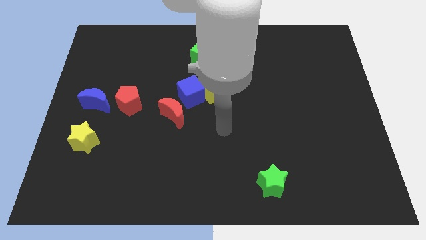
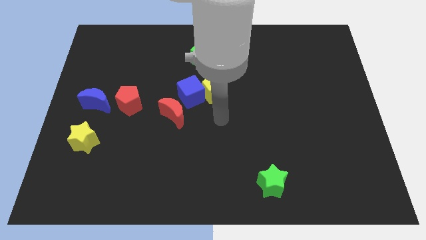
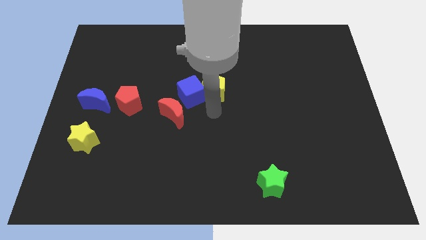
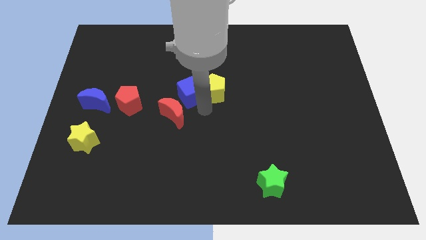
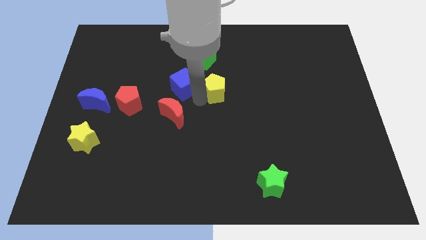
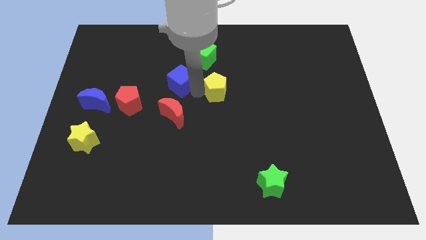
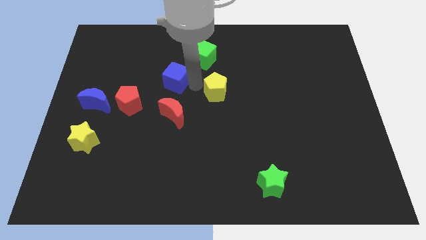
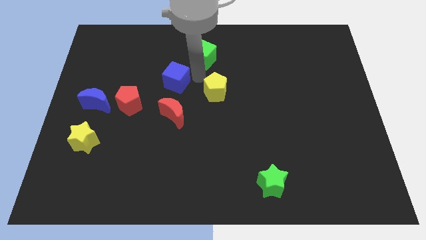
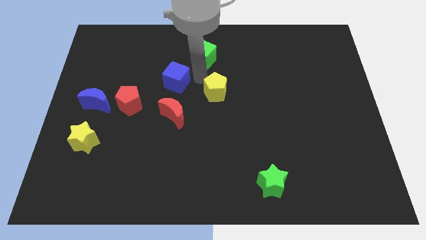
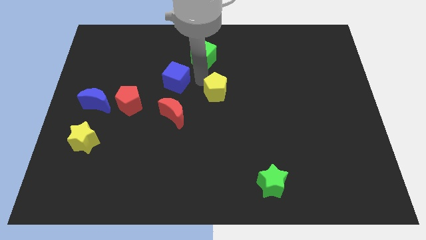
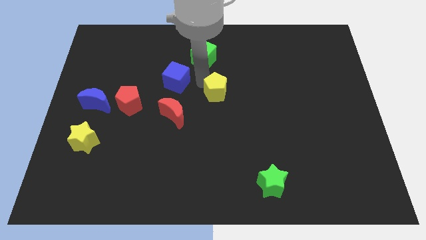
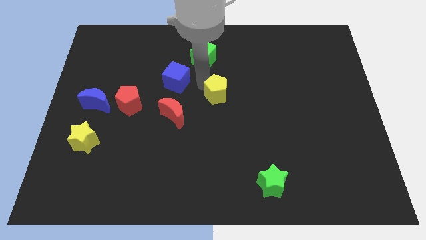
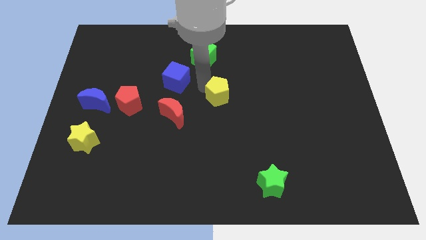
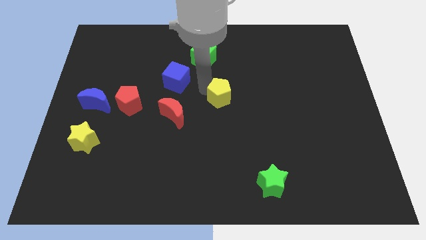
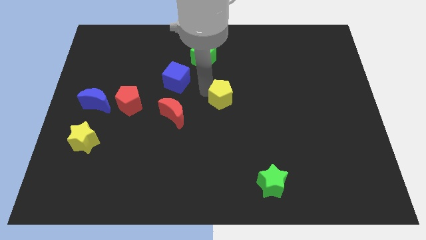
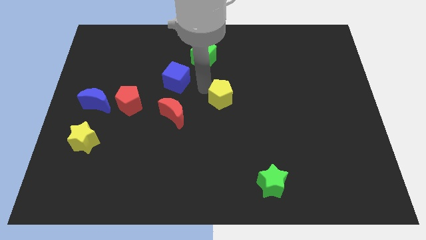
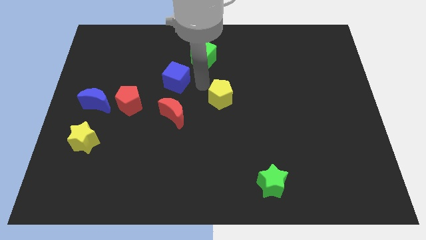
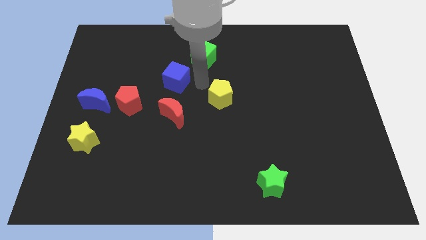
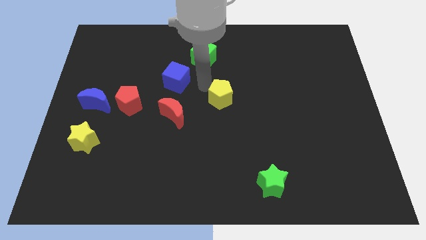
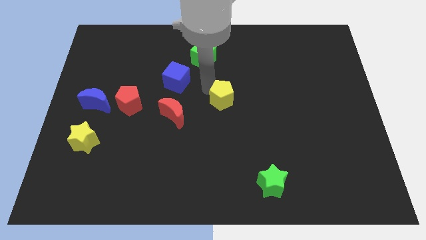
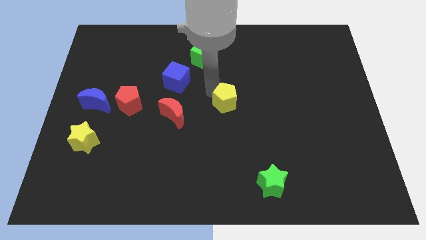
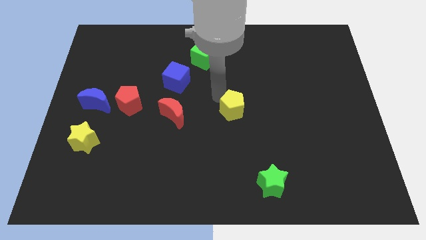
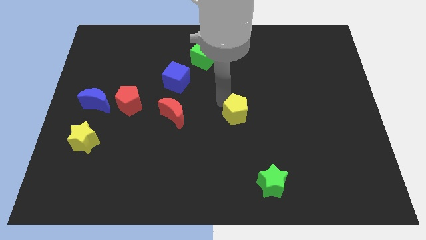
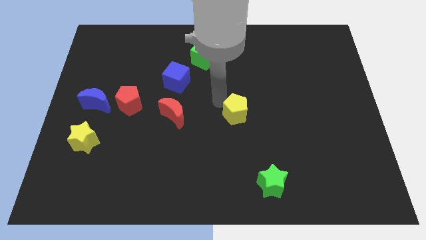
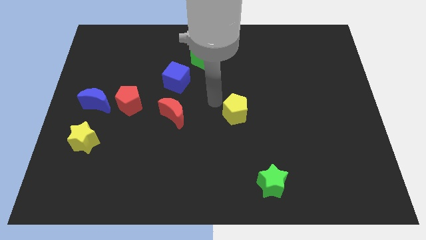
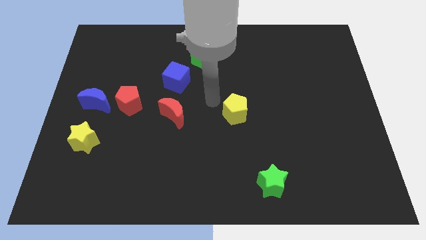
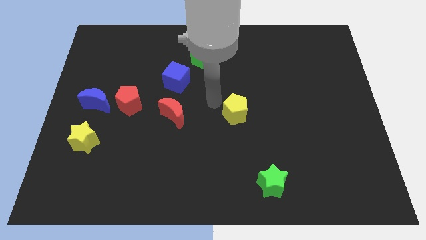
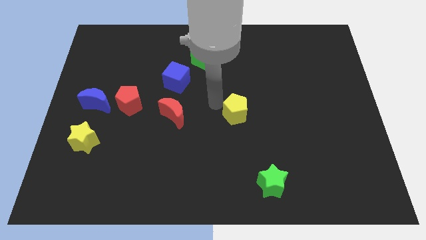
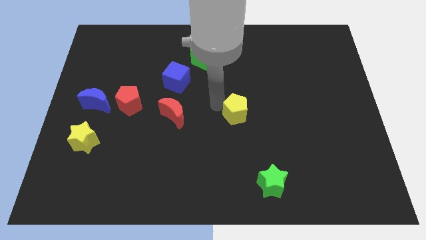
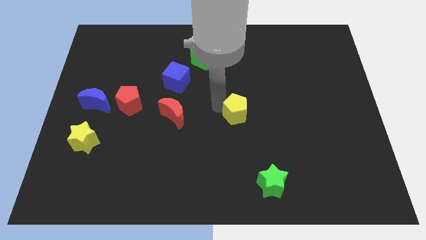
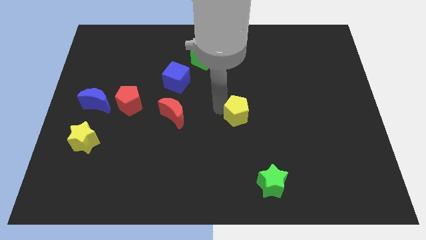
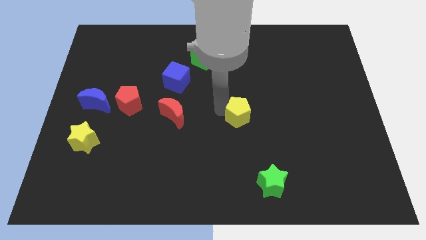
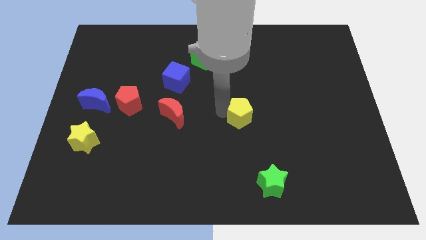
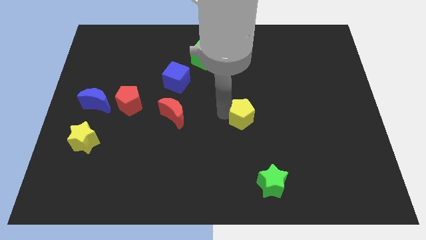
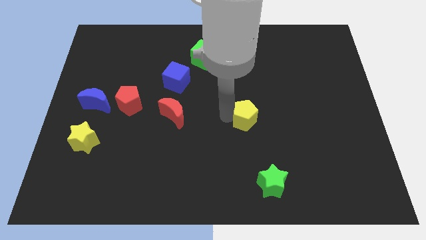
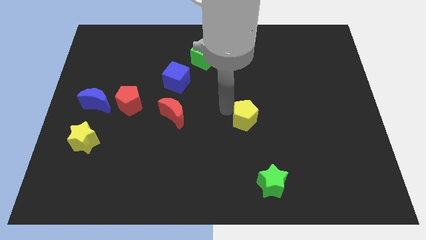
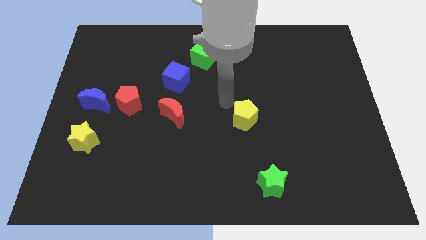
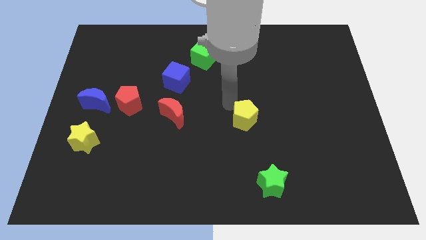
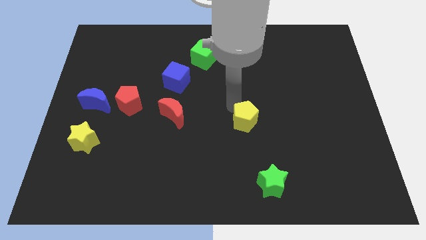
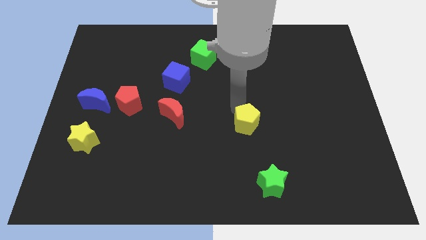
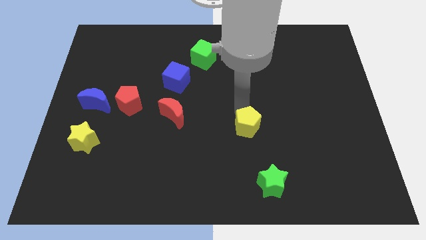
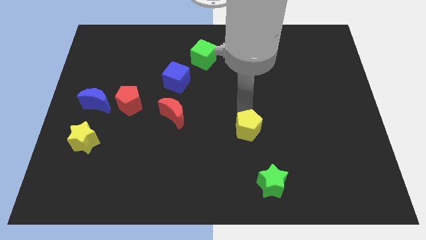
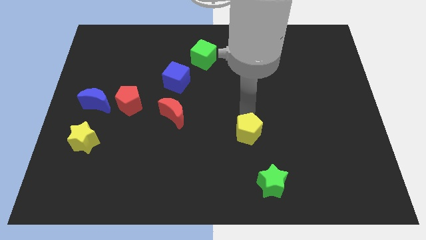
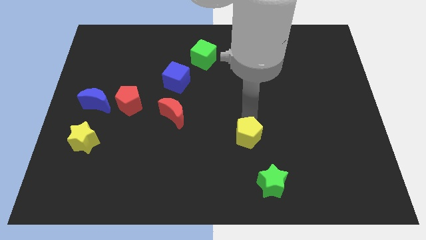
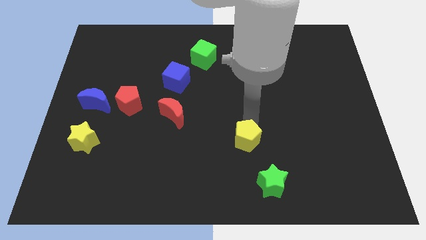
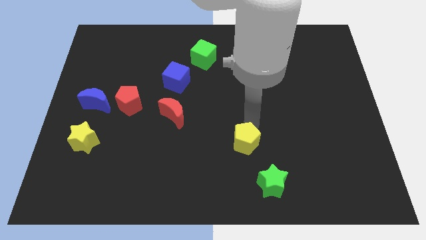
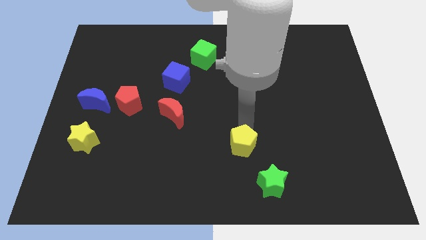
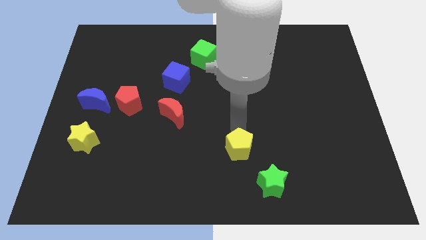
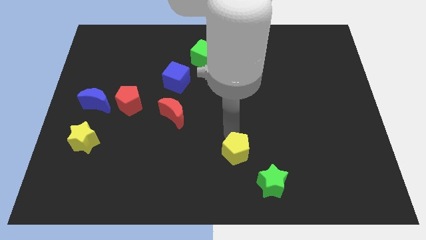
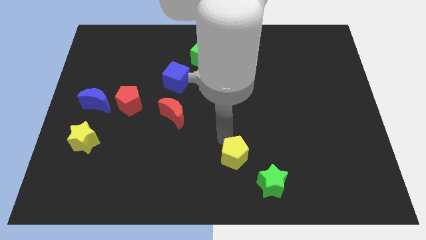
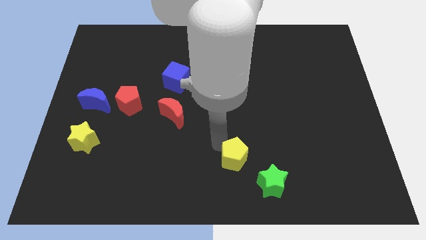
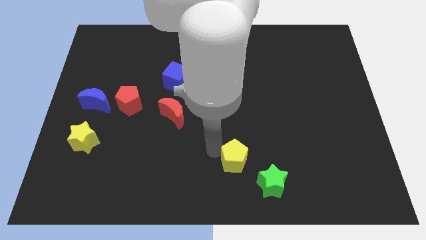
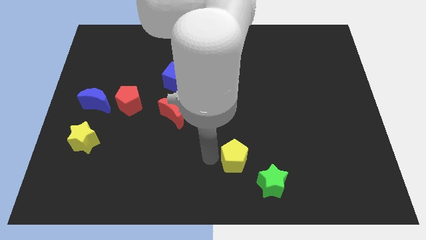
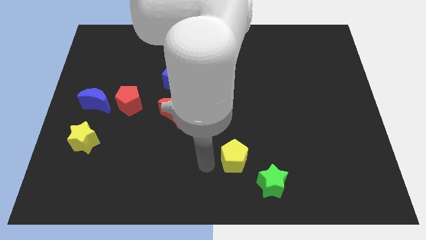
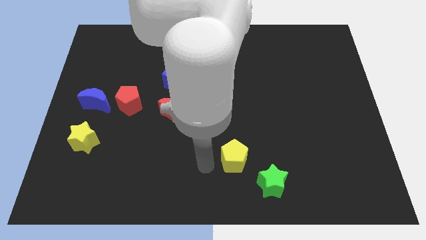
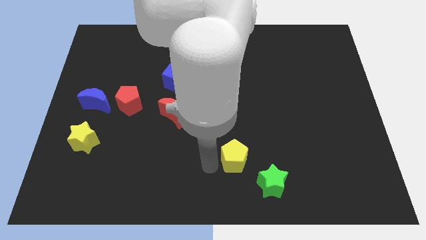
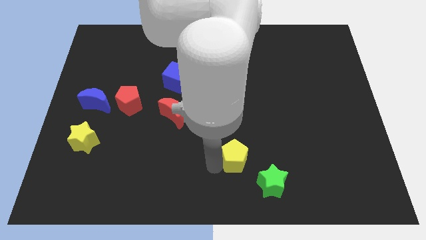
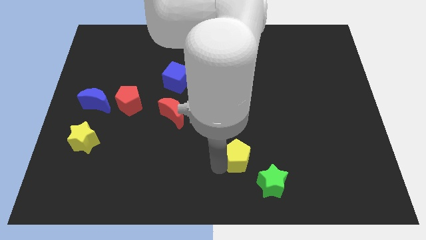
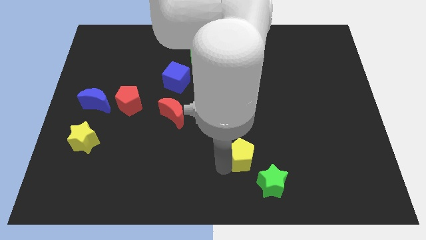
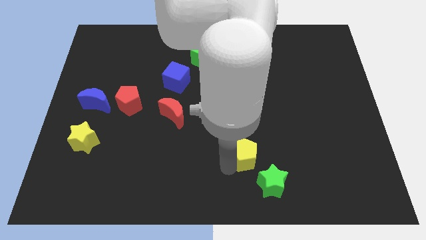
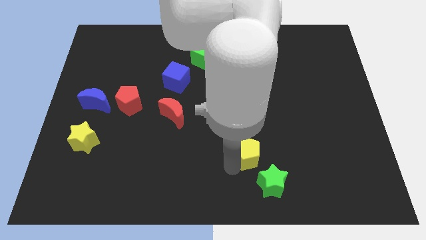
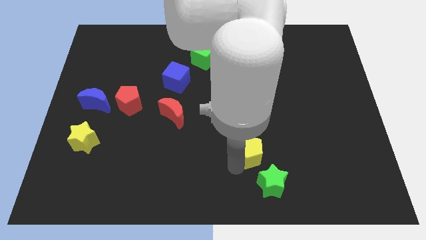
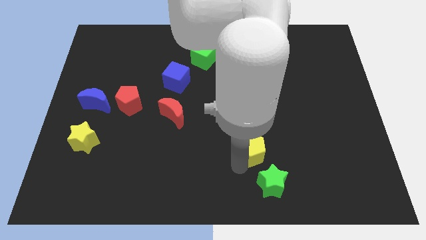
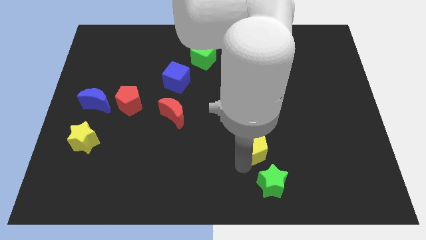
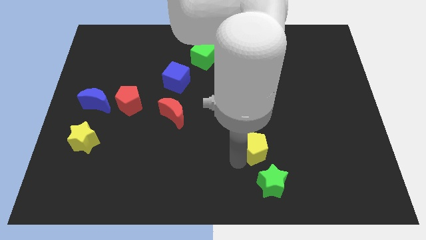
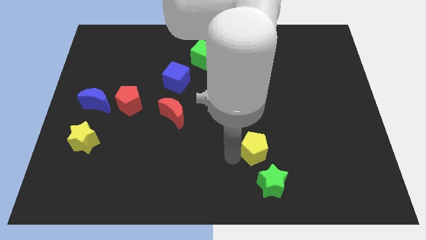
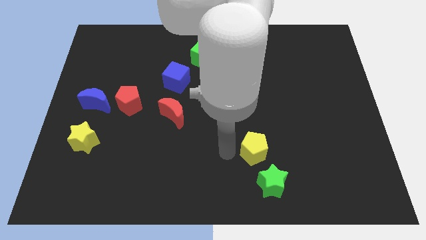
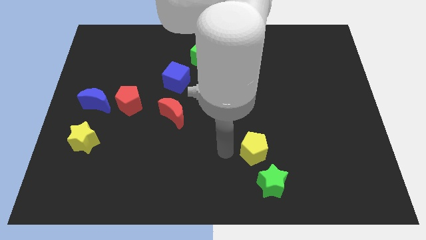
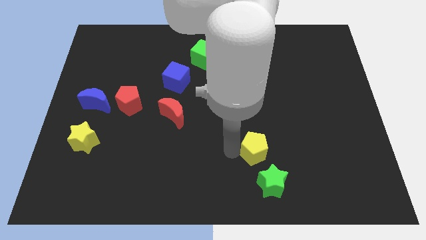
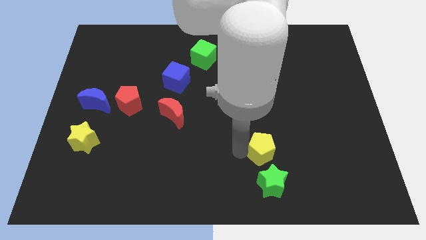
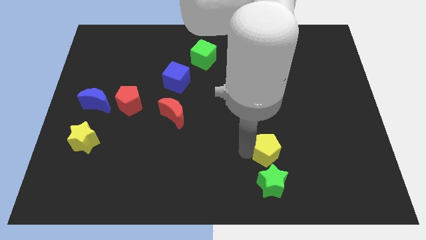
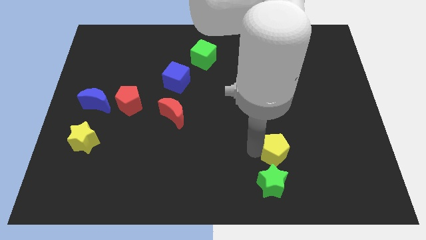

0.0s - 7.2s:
push the yellow pentagon diagonally downwards and to the right

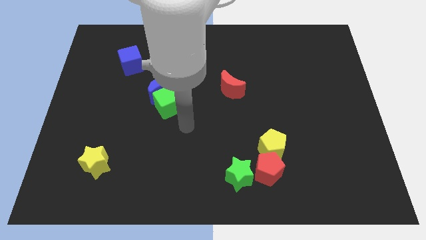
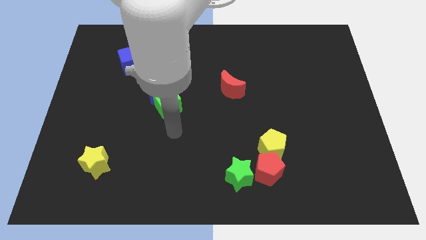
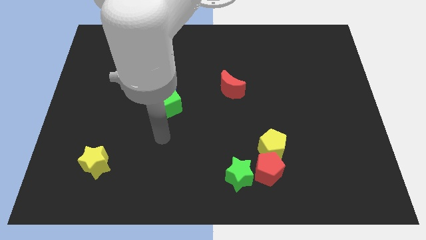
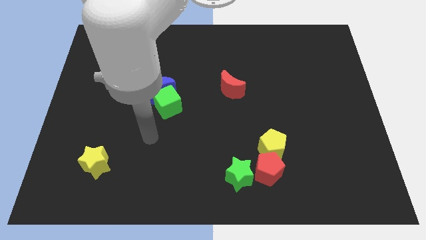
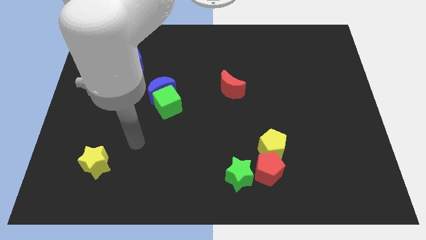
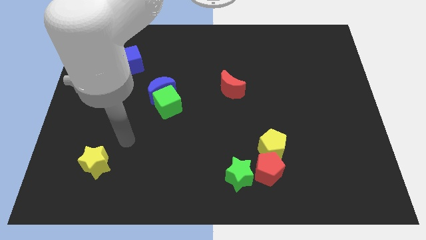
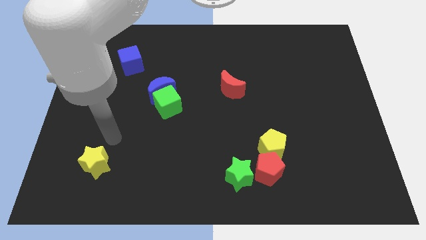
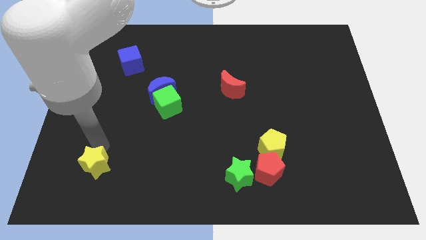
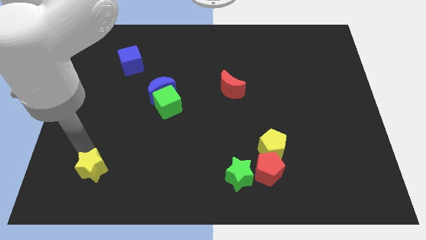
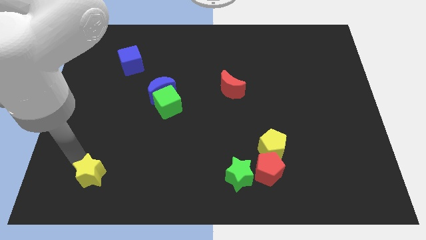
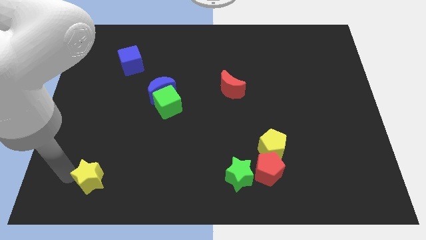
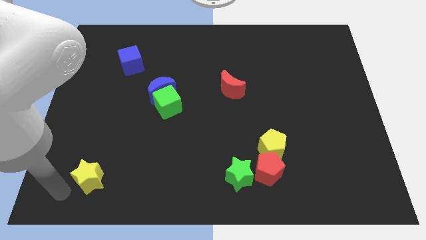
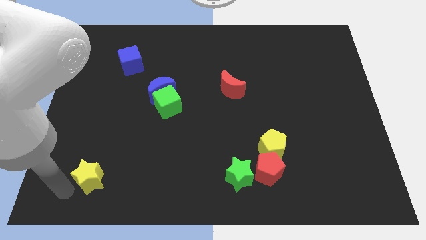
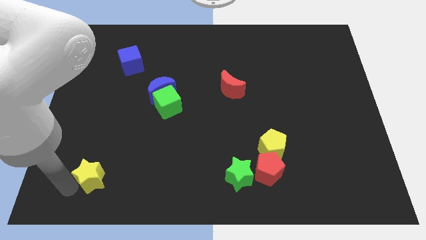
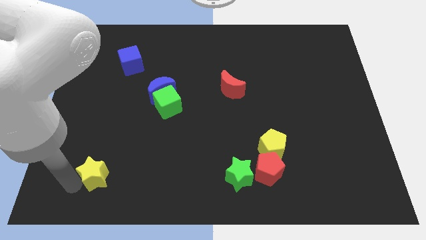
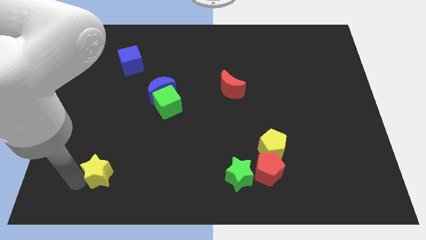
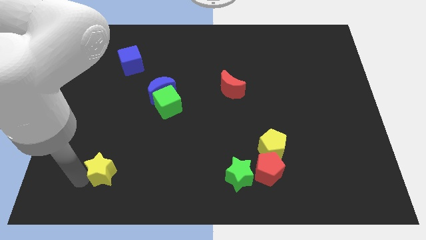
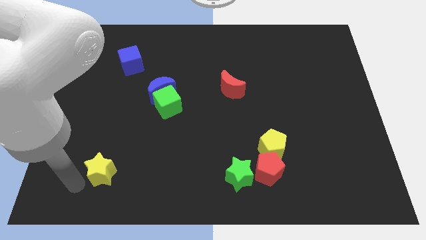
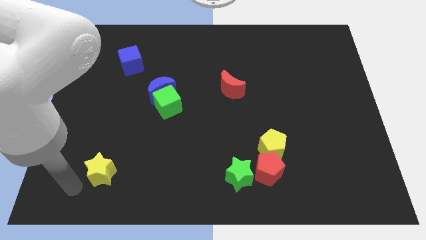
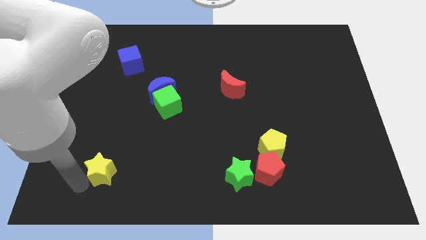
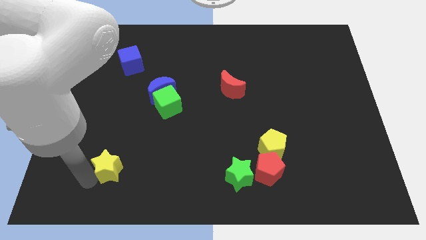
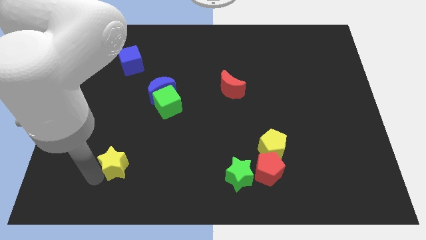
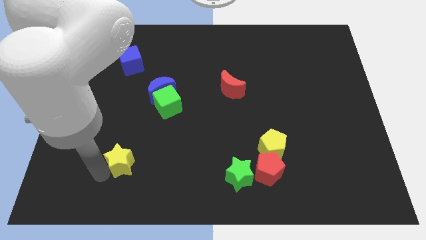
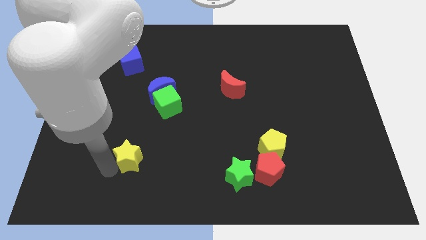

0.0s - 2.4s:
slightly move the yellow star to the right
